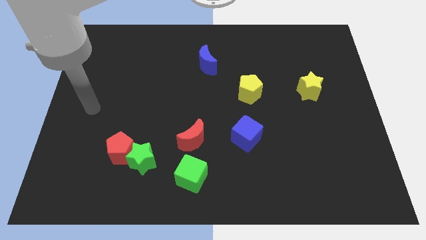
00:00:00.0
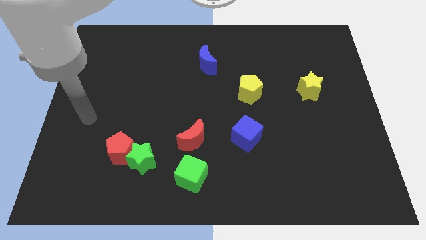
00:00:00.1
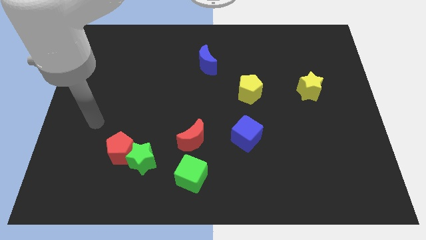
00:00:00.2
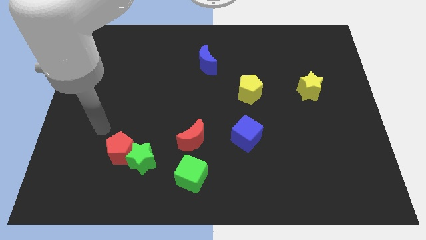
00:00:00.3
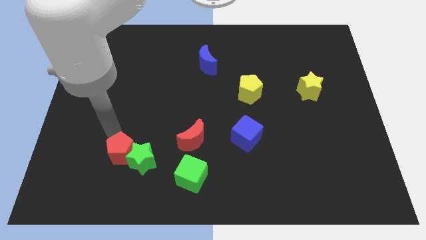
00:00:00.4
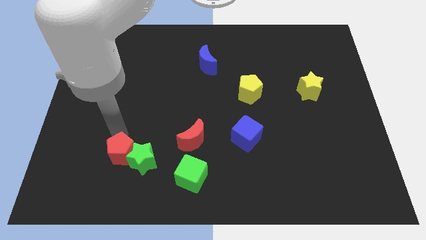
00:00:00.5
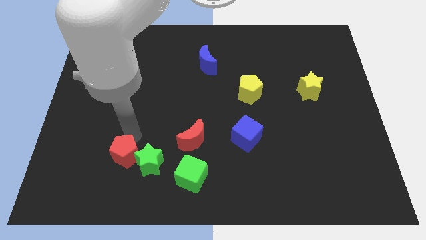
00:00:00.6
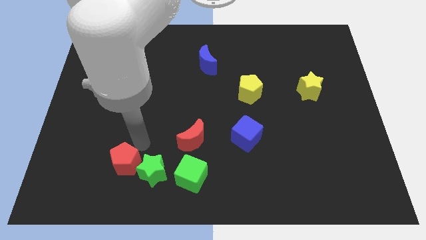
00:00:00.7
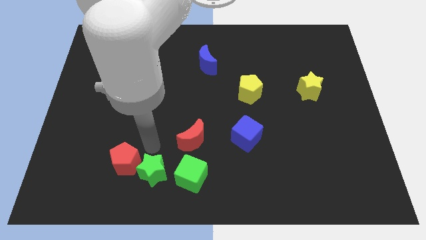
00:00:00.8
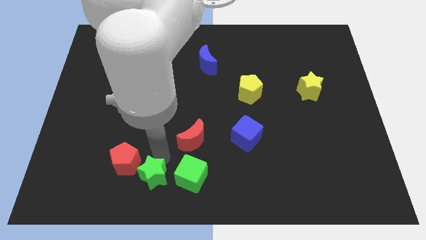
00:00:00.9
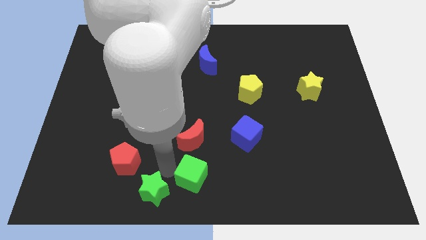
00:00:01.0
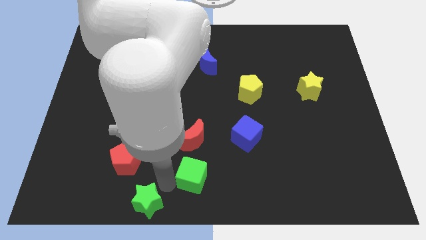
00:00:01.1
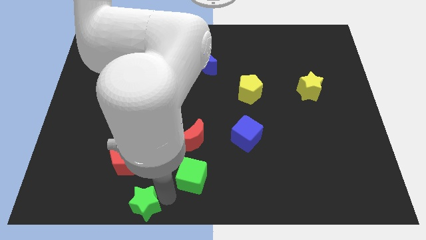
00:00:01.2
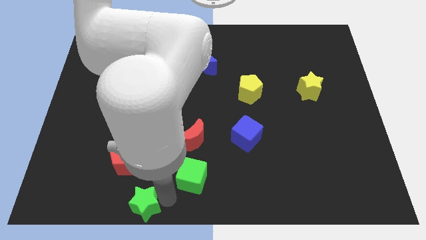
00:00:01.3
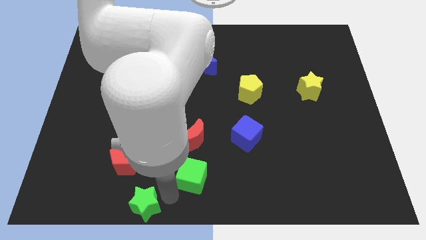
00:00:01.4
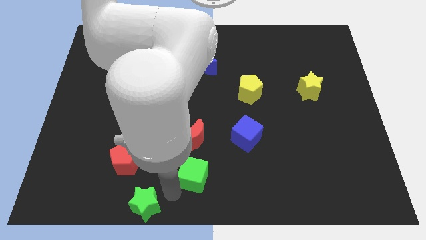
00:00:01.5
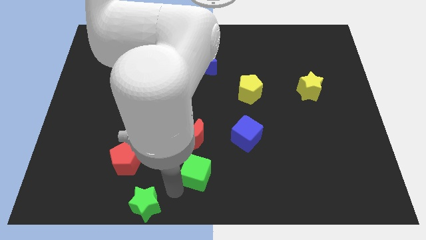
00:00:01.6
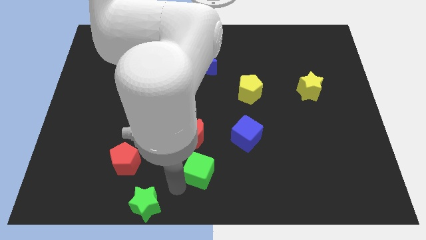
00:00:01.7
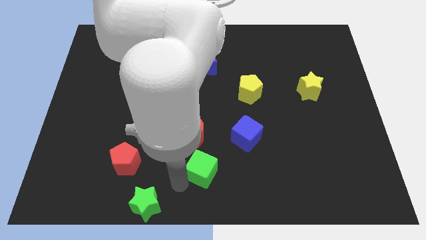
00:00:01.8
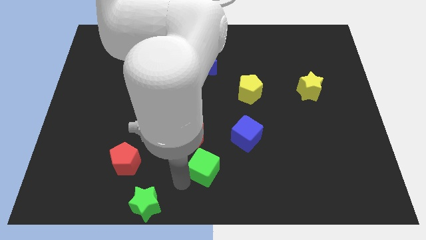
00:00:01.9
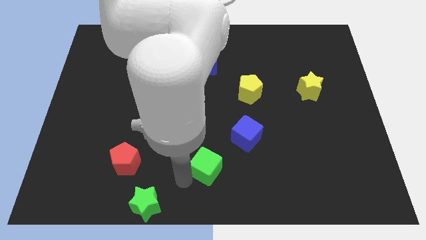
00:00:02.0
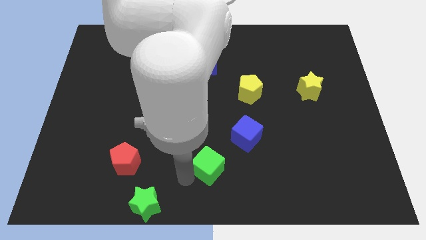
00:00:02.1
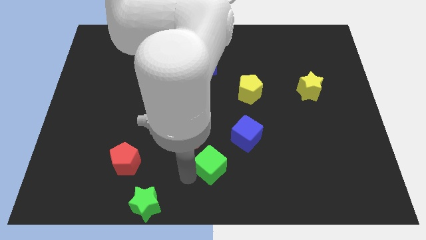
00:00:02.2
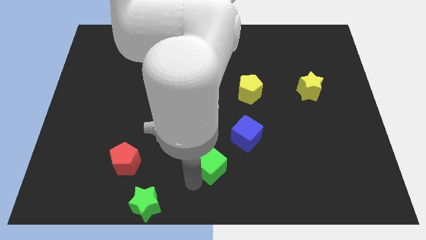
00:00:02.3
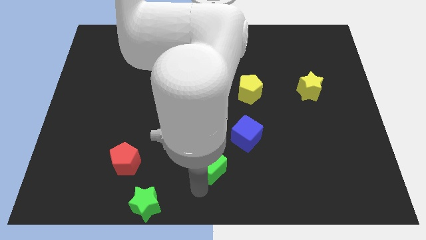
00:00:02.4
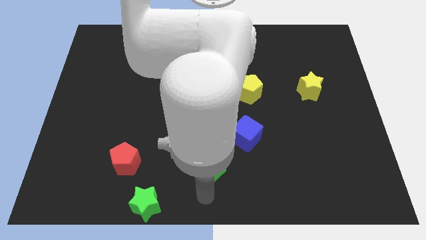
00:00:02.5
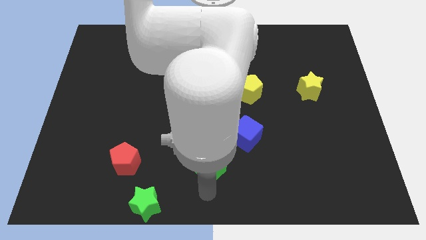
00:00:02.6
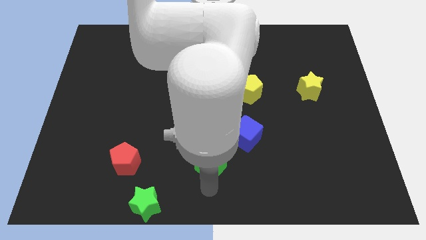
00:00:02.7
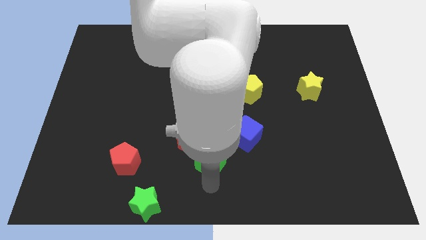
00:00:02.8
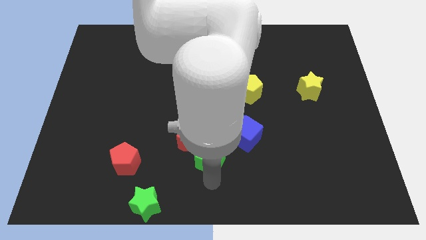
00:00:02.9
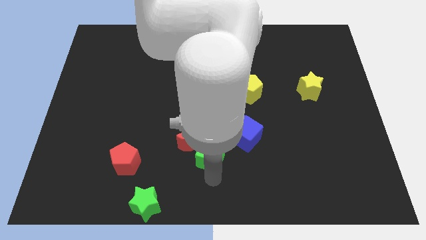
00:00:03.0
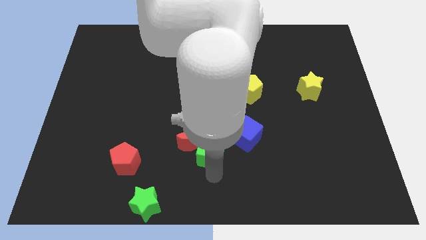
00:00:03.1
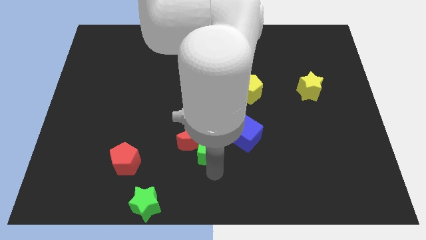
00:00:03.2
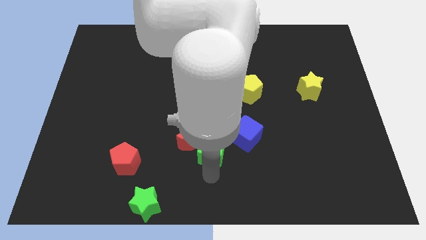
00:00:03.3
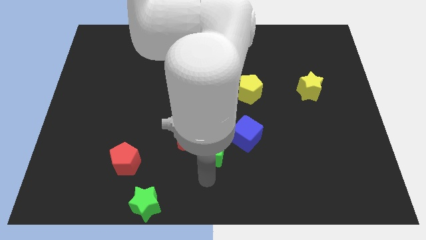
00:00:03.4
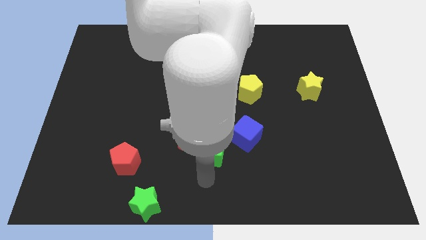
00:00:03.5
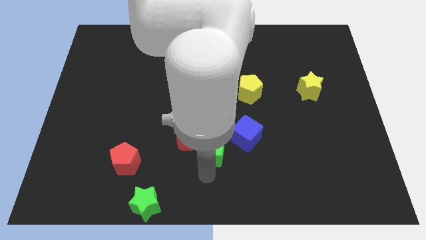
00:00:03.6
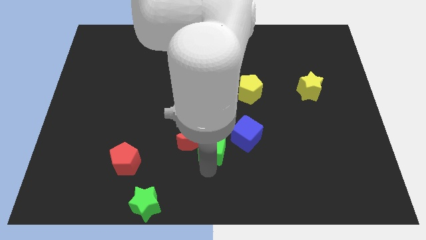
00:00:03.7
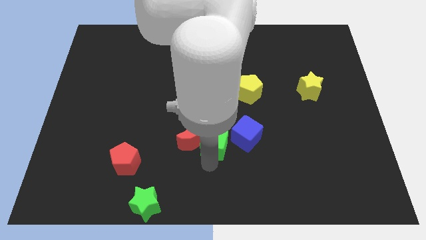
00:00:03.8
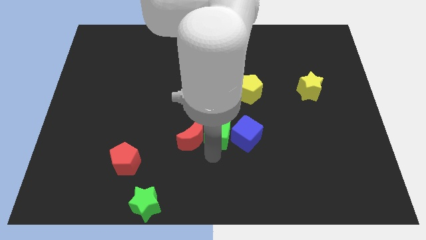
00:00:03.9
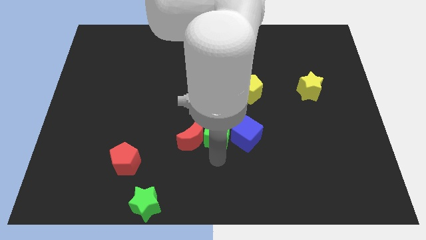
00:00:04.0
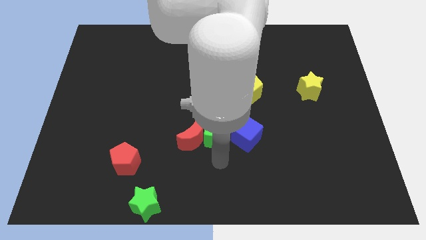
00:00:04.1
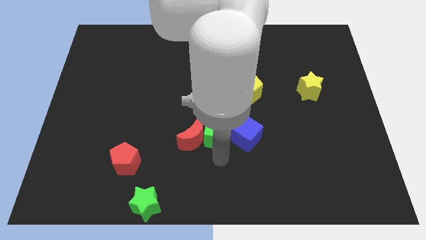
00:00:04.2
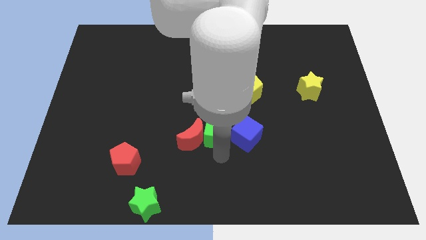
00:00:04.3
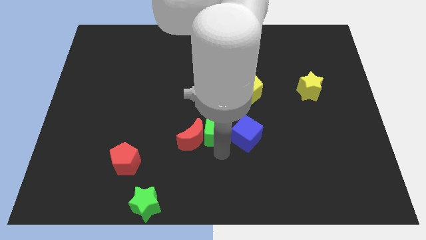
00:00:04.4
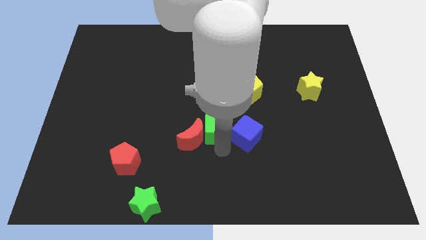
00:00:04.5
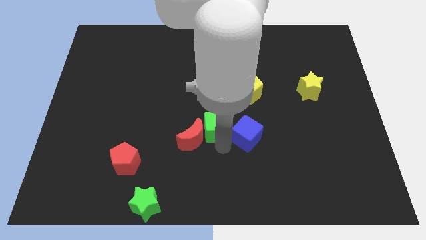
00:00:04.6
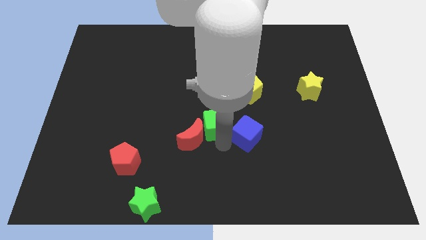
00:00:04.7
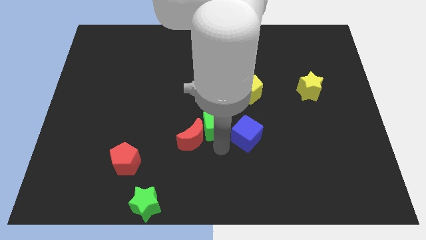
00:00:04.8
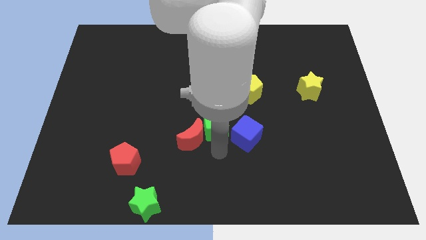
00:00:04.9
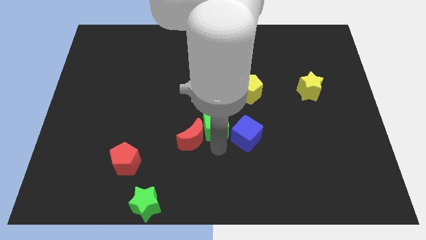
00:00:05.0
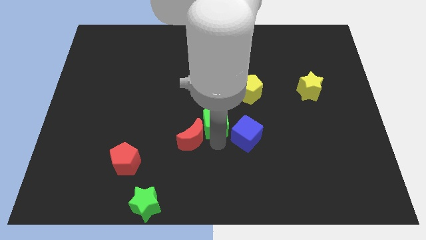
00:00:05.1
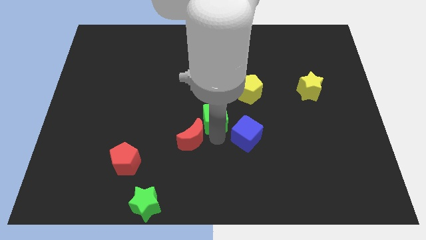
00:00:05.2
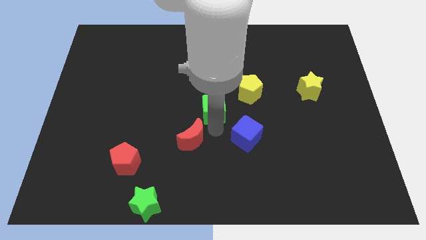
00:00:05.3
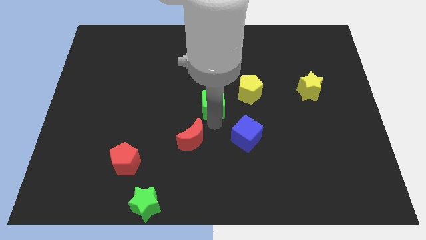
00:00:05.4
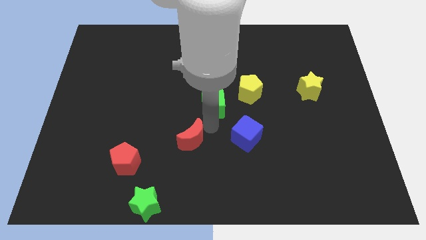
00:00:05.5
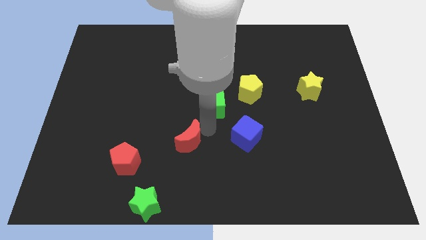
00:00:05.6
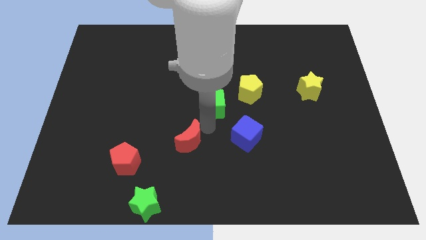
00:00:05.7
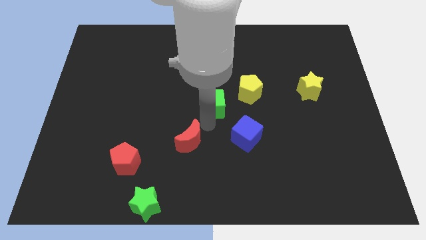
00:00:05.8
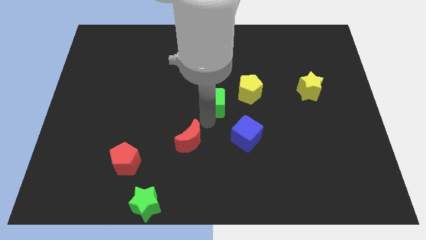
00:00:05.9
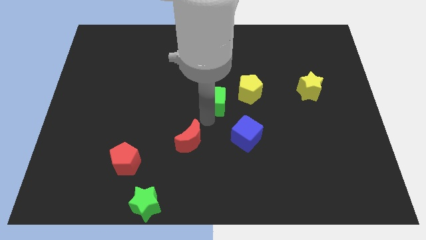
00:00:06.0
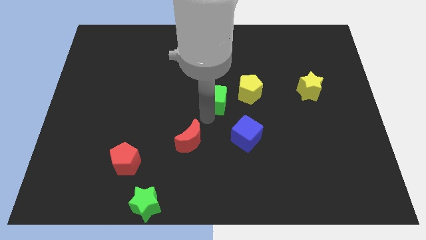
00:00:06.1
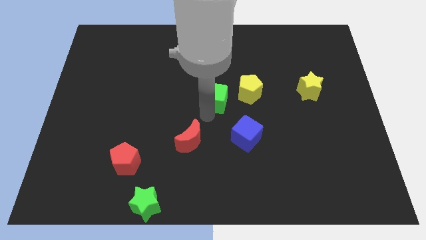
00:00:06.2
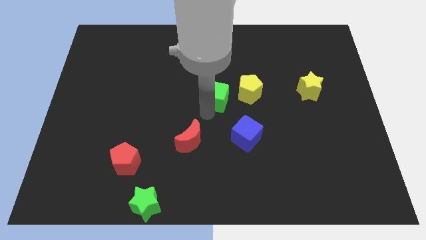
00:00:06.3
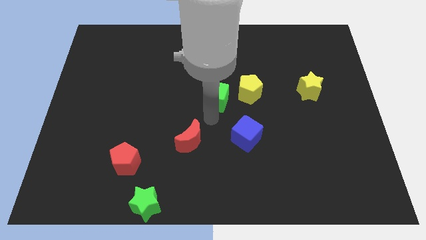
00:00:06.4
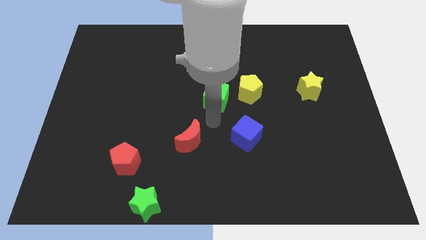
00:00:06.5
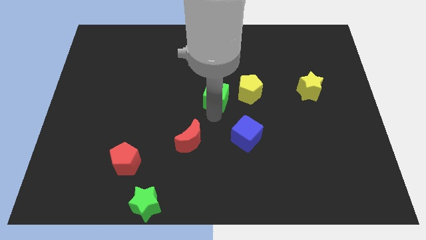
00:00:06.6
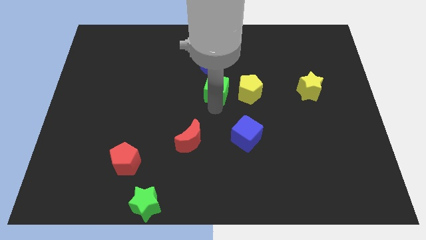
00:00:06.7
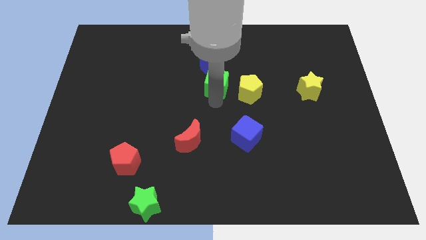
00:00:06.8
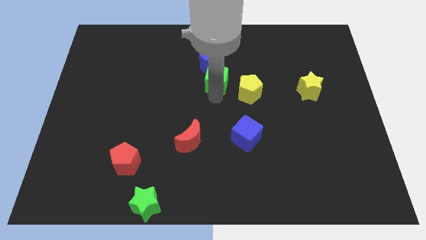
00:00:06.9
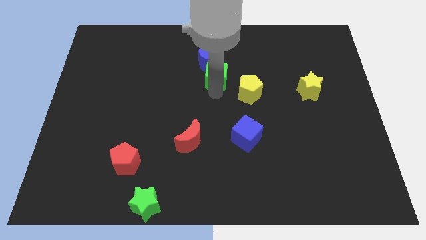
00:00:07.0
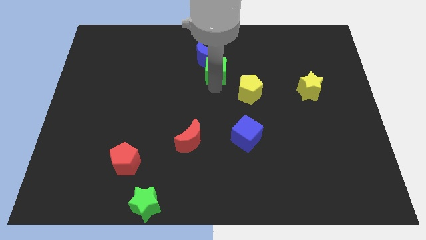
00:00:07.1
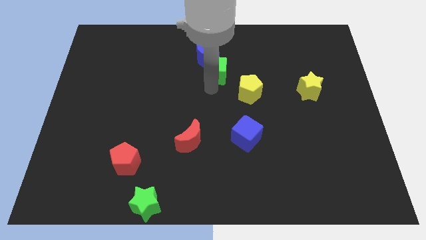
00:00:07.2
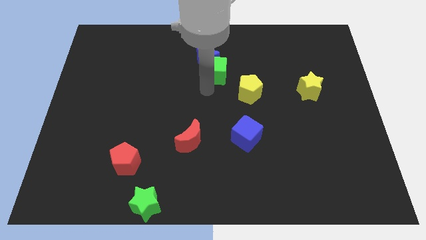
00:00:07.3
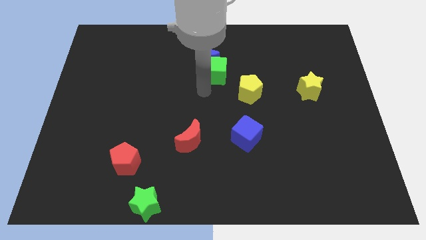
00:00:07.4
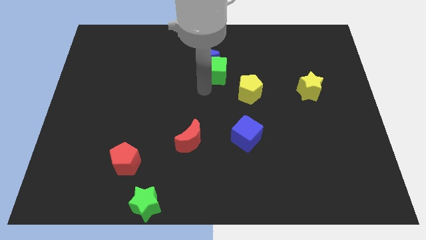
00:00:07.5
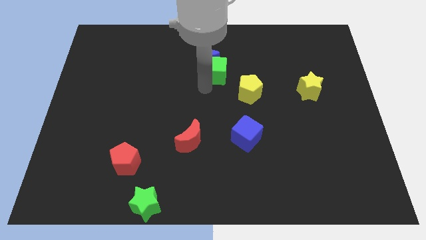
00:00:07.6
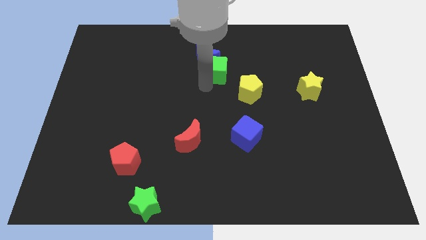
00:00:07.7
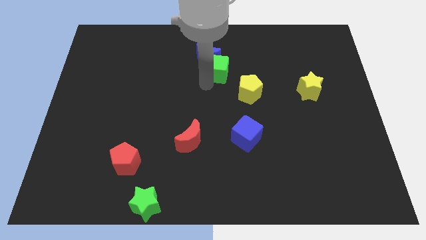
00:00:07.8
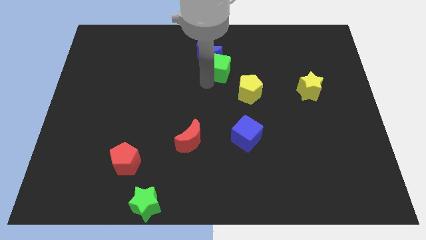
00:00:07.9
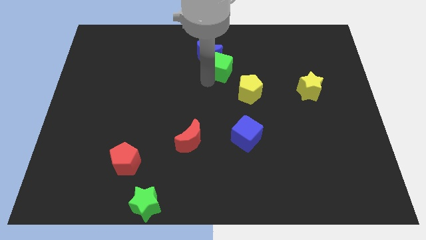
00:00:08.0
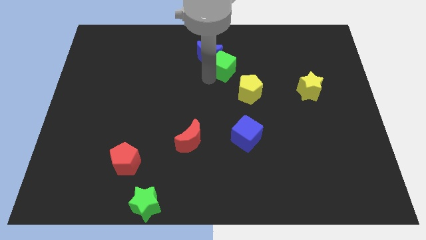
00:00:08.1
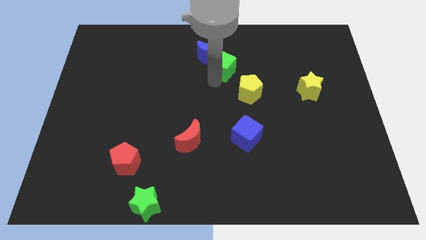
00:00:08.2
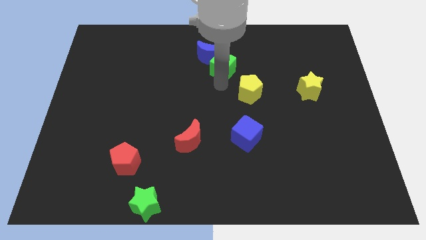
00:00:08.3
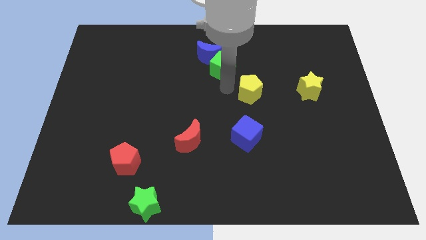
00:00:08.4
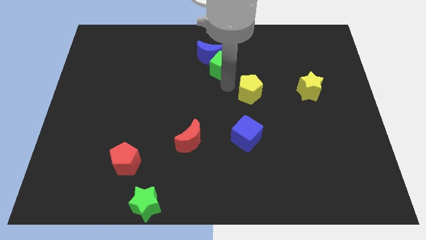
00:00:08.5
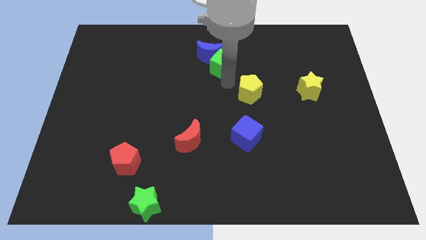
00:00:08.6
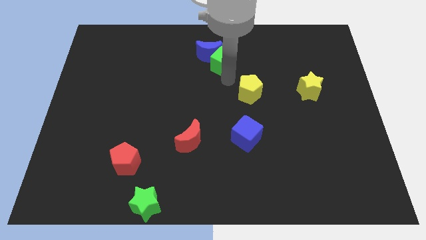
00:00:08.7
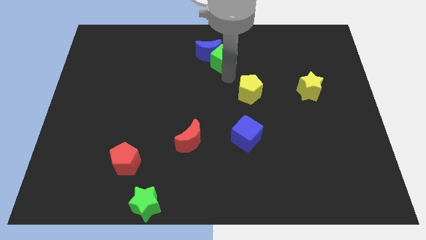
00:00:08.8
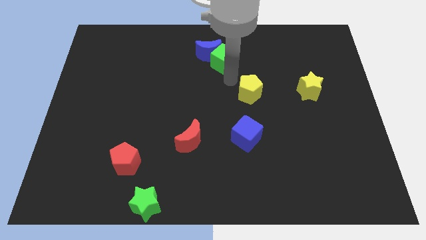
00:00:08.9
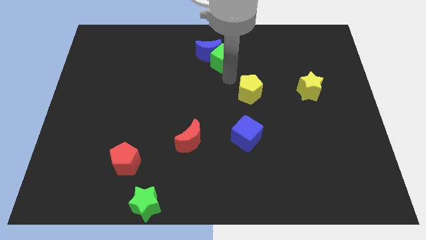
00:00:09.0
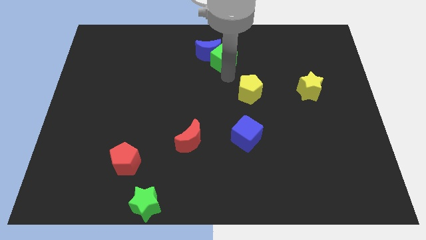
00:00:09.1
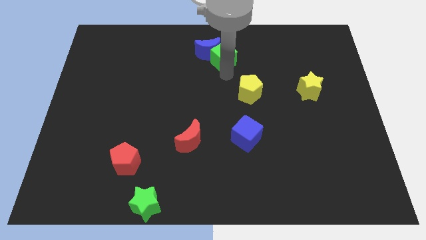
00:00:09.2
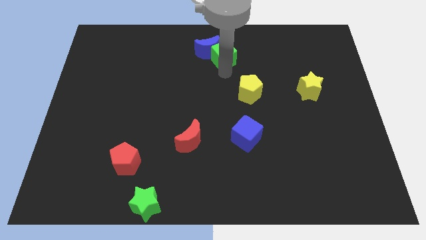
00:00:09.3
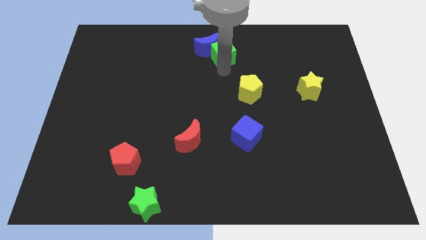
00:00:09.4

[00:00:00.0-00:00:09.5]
push the green cube to the top side
